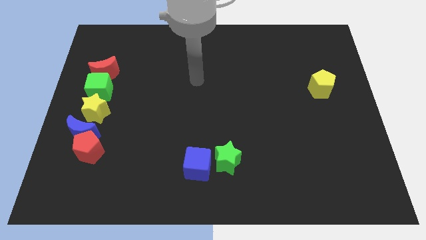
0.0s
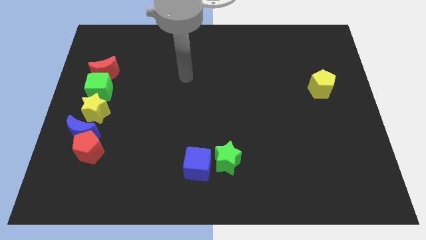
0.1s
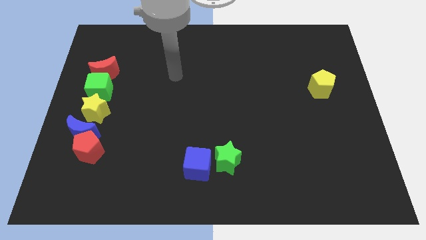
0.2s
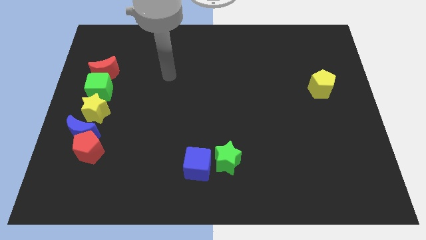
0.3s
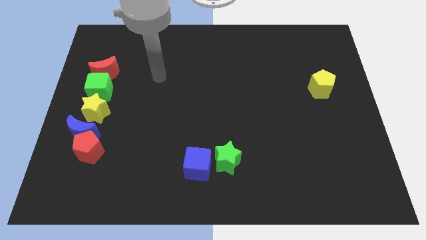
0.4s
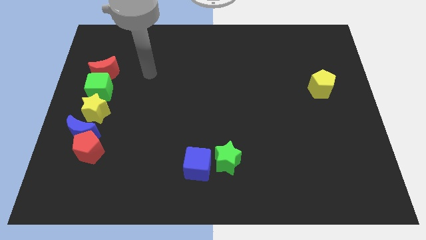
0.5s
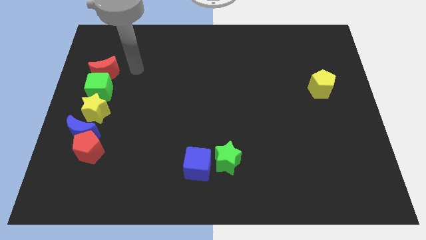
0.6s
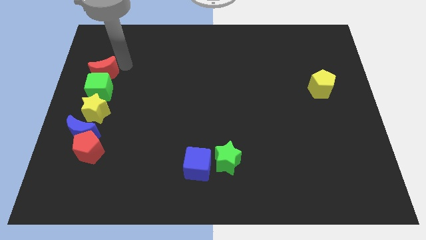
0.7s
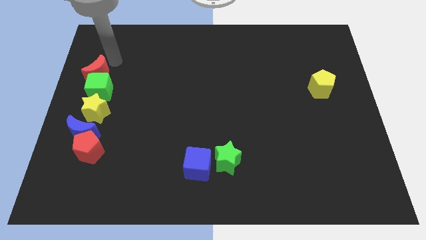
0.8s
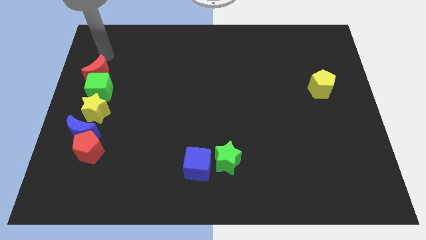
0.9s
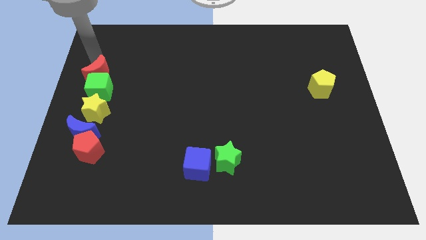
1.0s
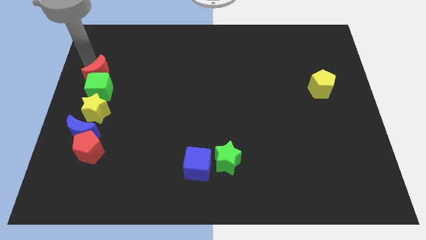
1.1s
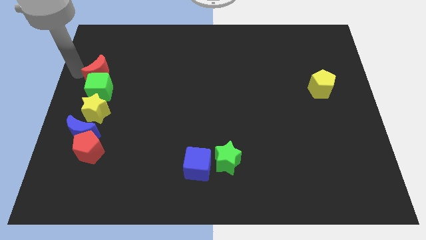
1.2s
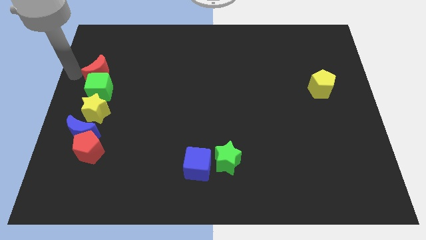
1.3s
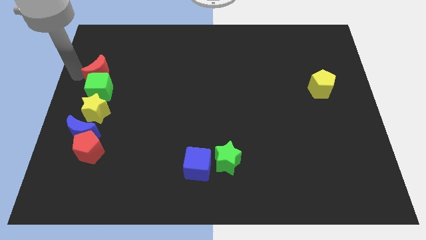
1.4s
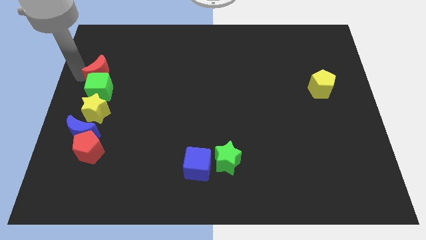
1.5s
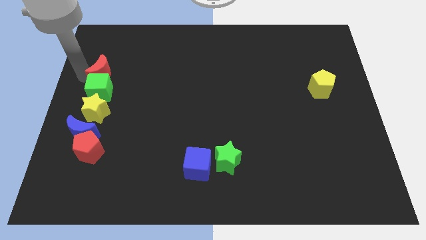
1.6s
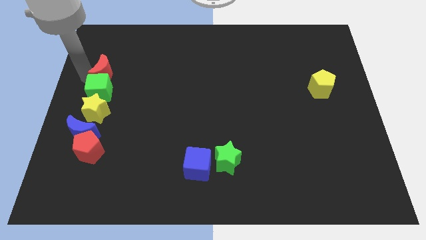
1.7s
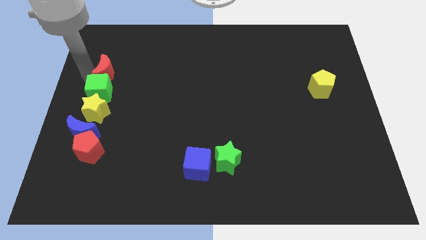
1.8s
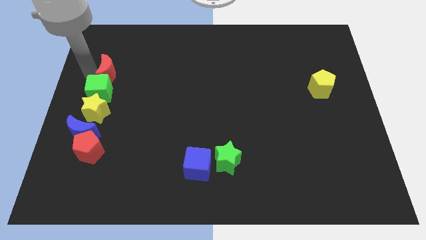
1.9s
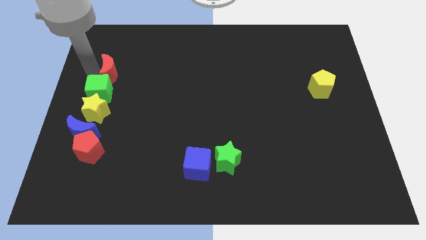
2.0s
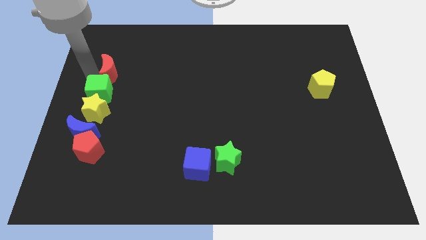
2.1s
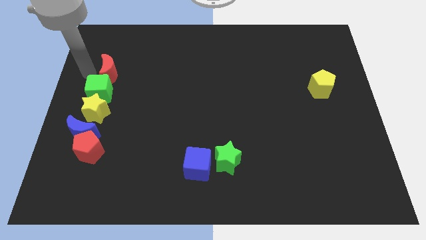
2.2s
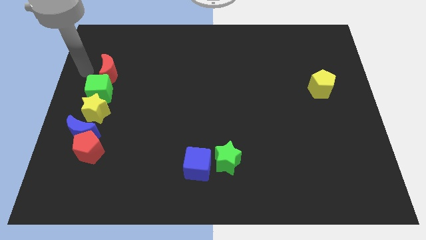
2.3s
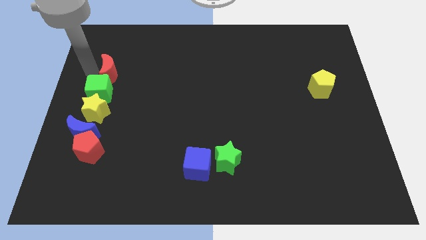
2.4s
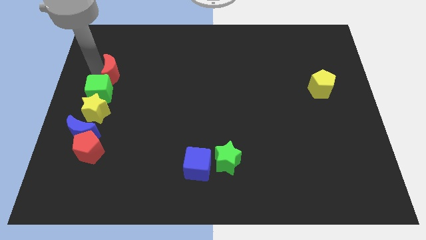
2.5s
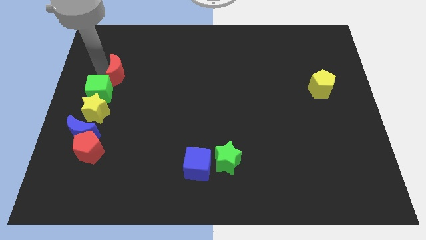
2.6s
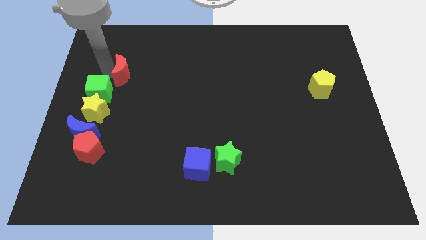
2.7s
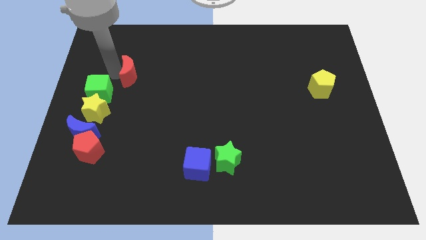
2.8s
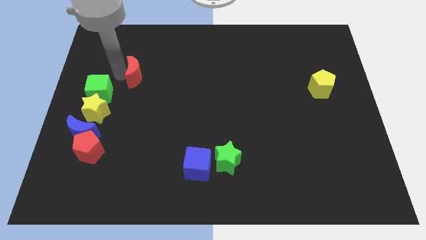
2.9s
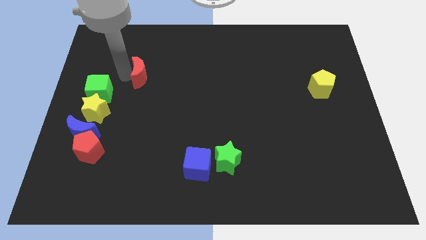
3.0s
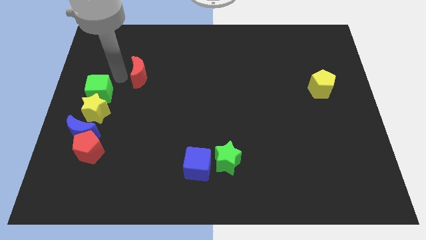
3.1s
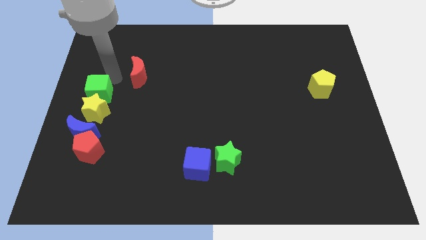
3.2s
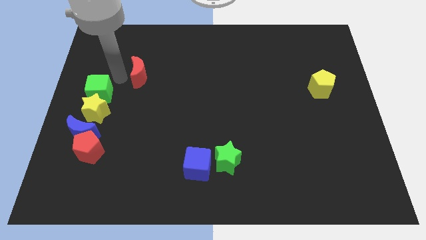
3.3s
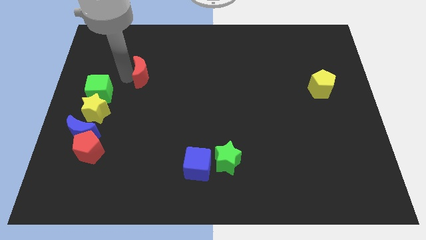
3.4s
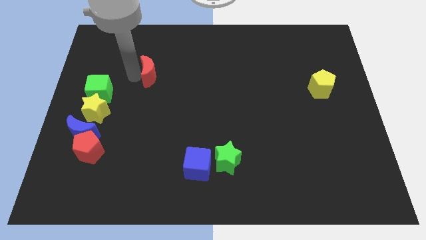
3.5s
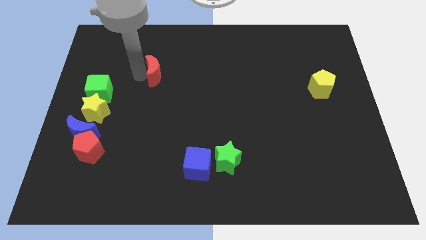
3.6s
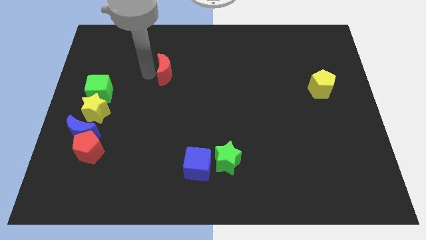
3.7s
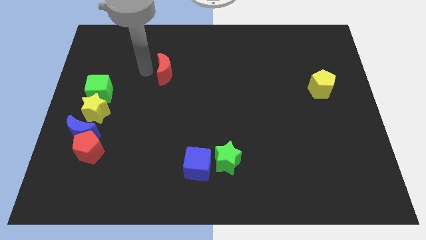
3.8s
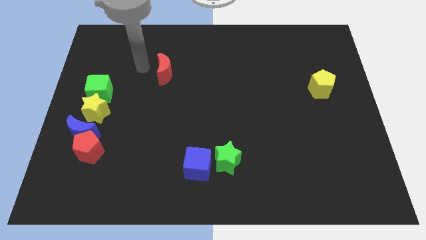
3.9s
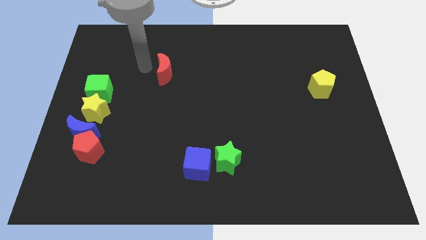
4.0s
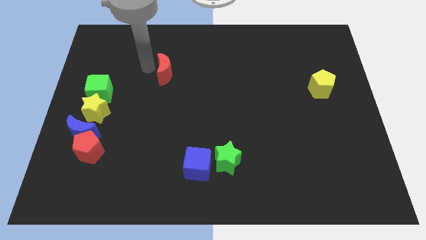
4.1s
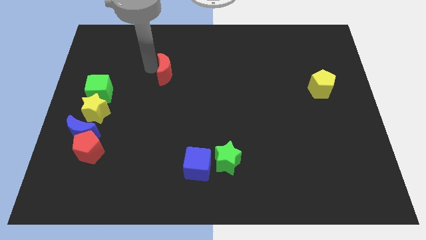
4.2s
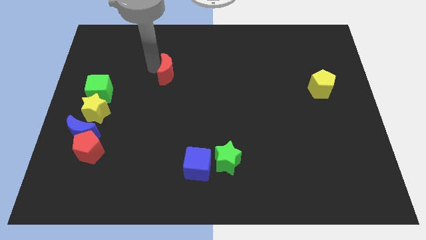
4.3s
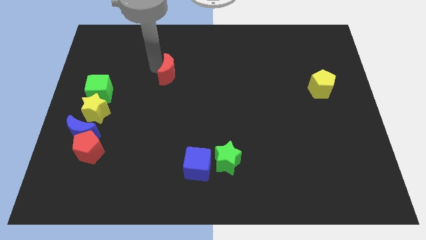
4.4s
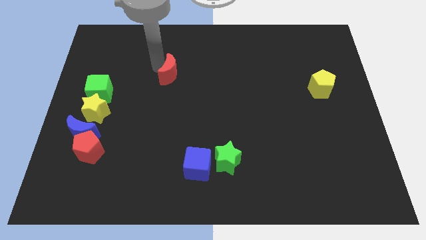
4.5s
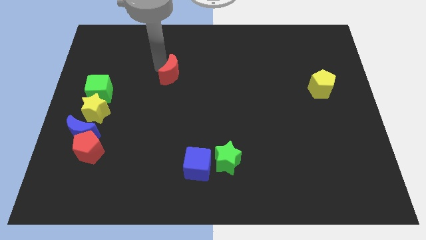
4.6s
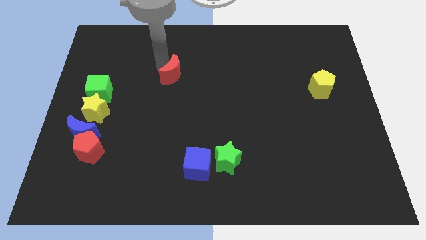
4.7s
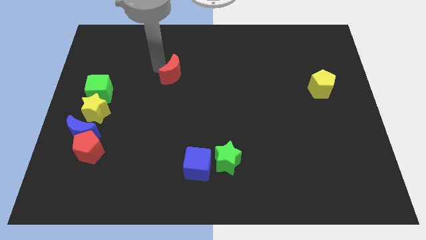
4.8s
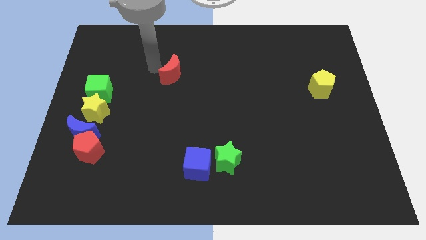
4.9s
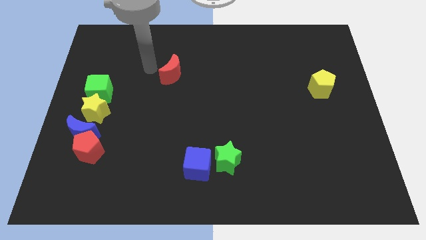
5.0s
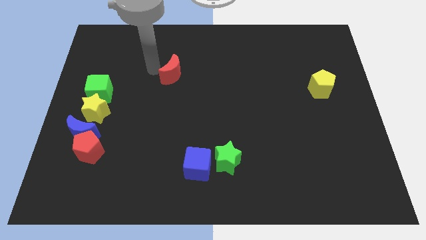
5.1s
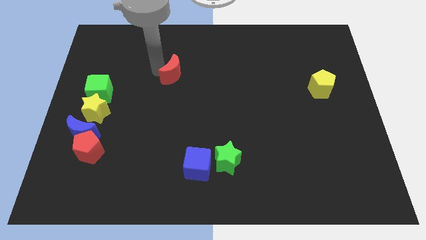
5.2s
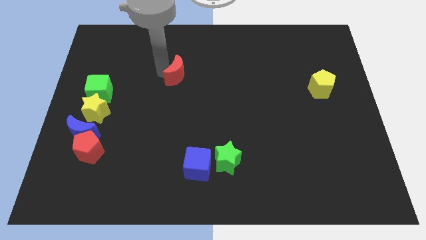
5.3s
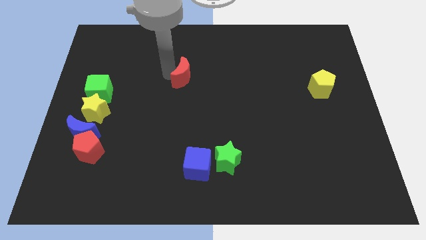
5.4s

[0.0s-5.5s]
slide the red moon to the right

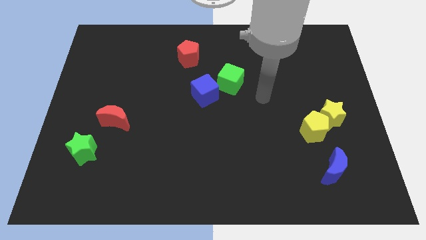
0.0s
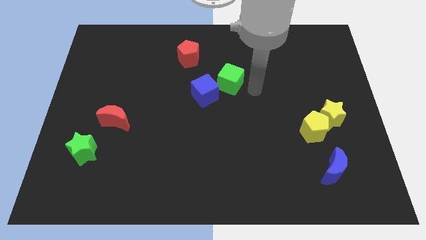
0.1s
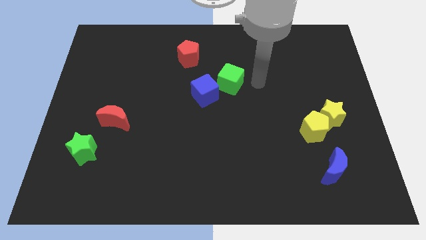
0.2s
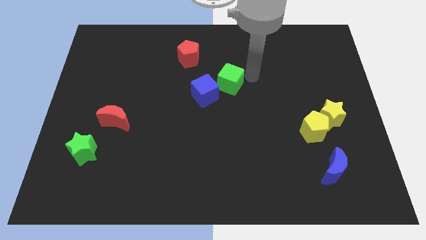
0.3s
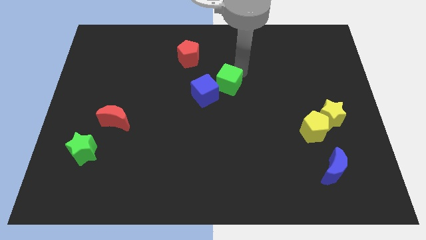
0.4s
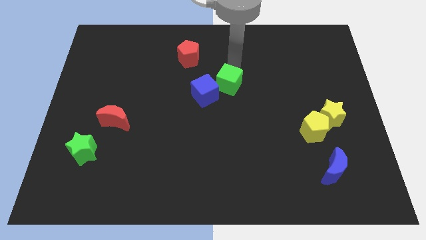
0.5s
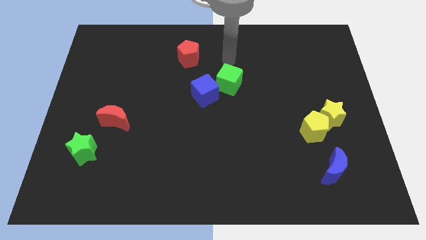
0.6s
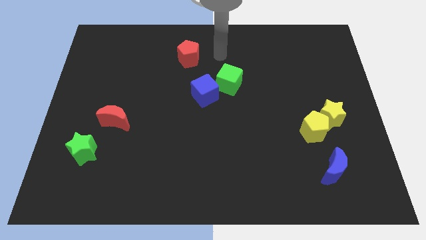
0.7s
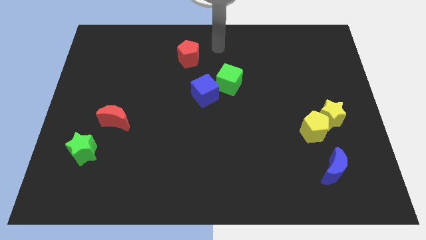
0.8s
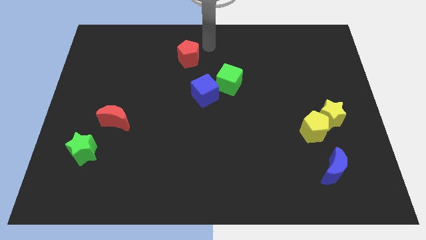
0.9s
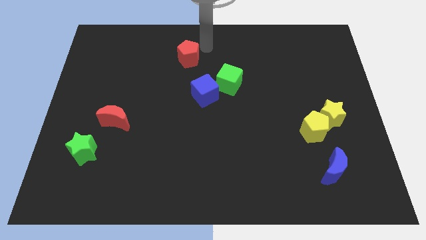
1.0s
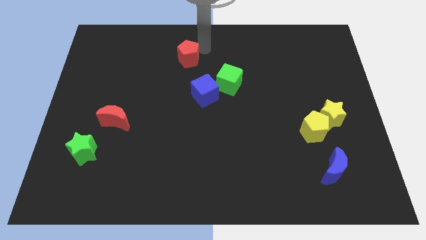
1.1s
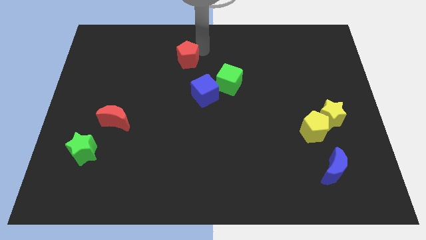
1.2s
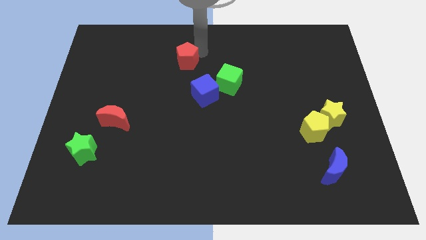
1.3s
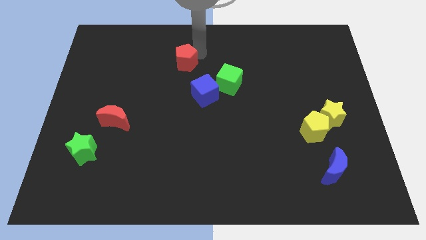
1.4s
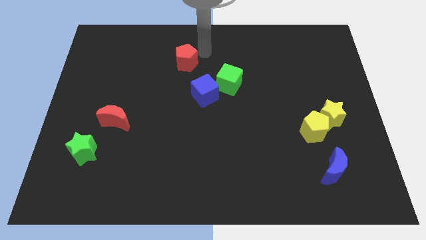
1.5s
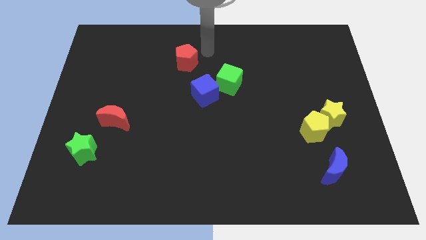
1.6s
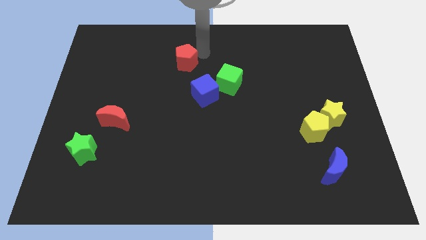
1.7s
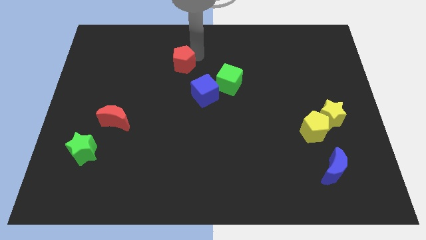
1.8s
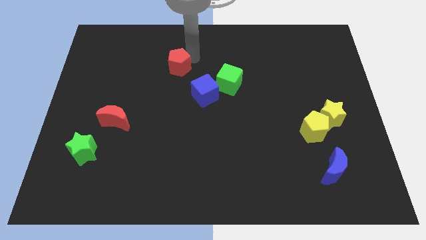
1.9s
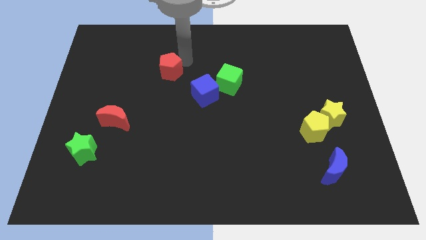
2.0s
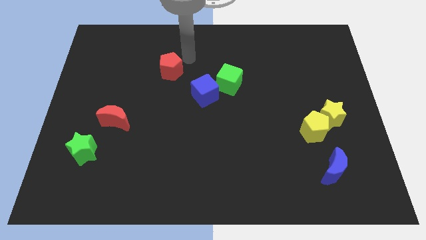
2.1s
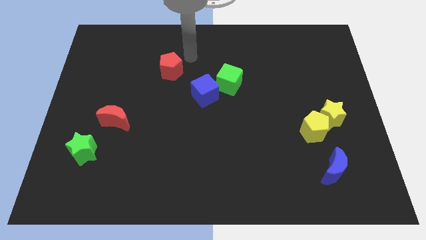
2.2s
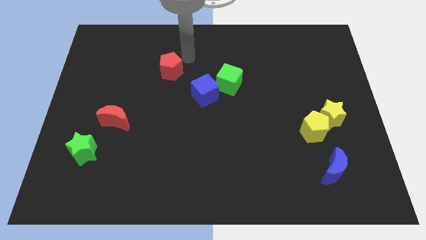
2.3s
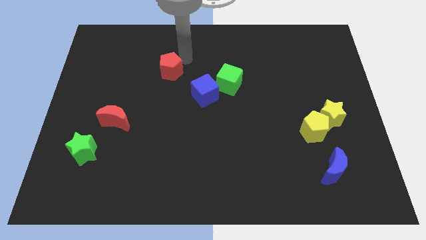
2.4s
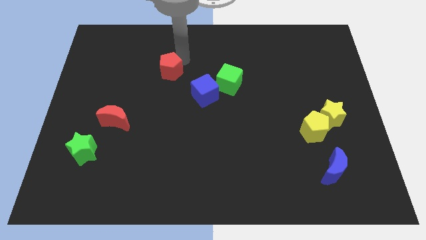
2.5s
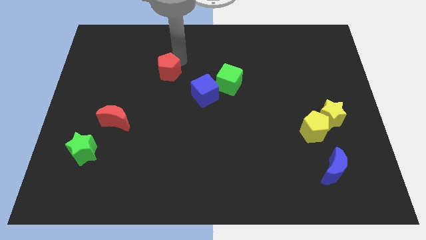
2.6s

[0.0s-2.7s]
slightly push the red pentagon down and to the left diagonally
